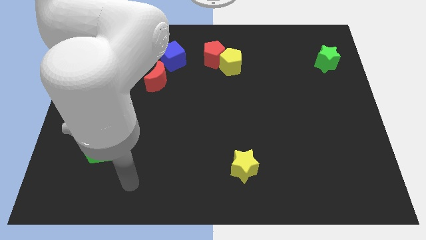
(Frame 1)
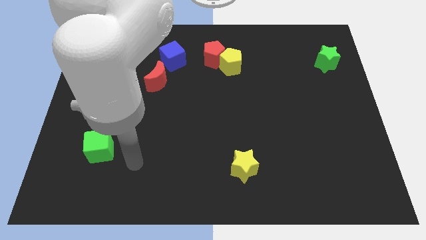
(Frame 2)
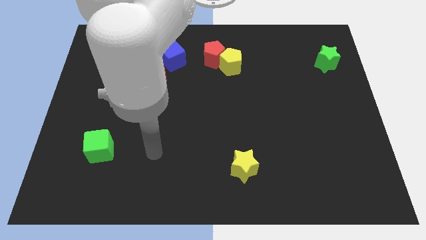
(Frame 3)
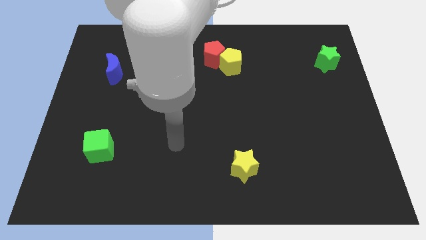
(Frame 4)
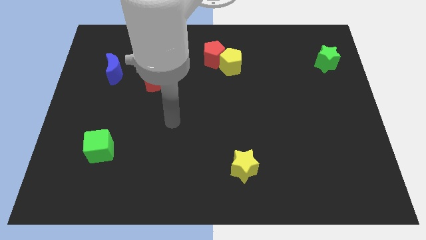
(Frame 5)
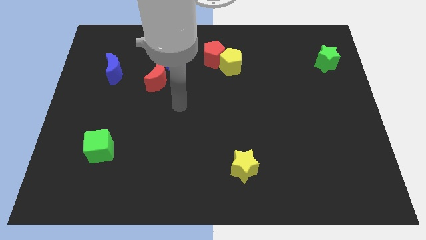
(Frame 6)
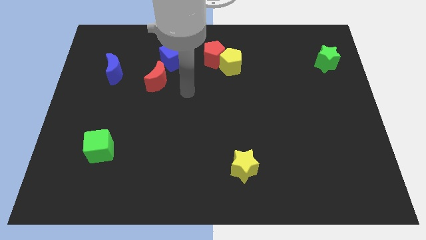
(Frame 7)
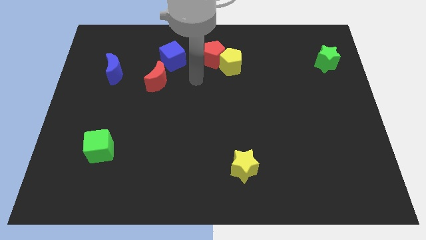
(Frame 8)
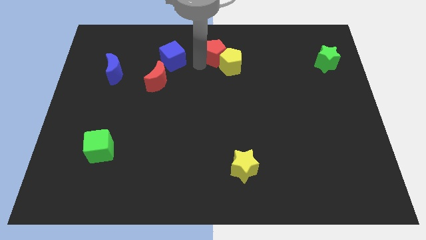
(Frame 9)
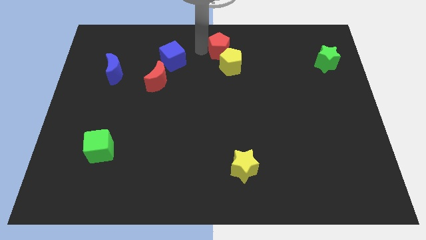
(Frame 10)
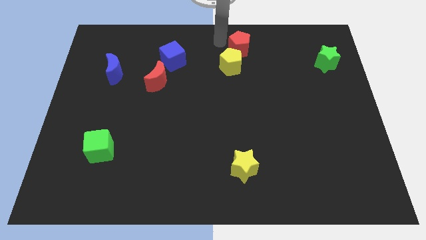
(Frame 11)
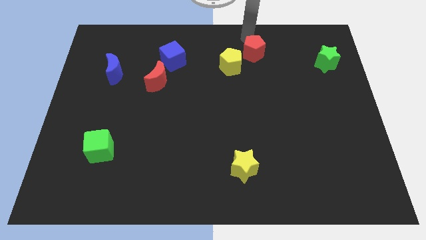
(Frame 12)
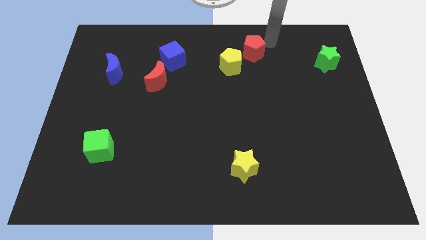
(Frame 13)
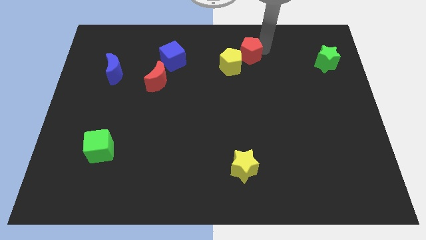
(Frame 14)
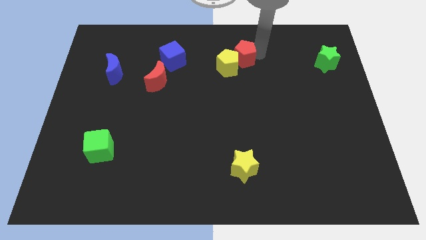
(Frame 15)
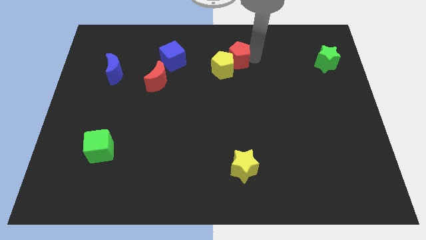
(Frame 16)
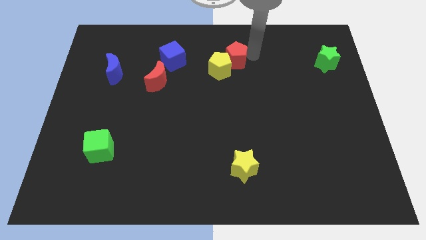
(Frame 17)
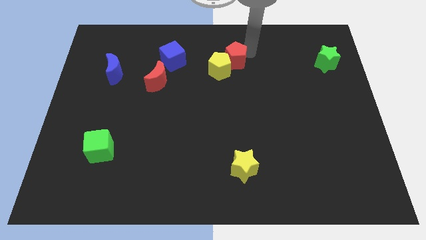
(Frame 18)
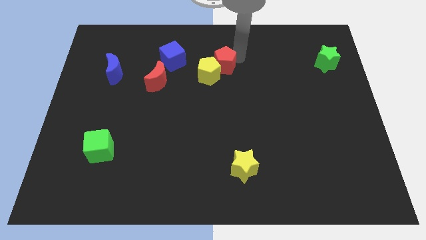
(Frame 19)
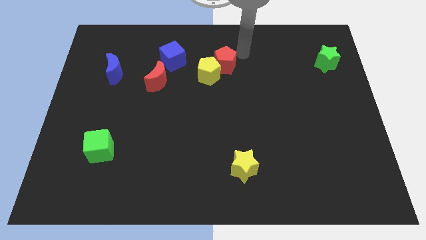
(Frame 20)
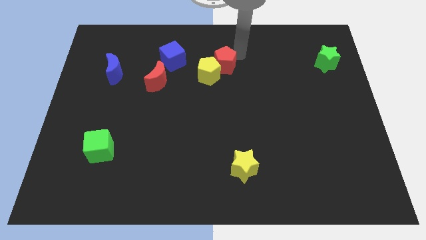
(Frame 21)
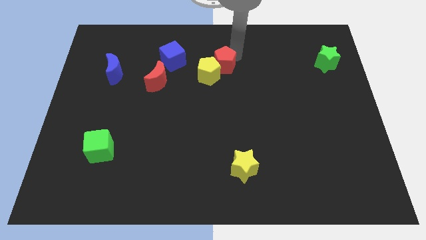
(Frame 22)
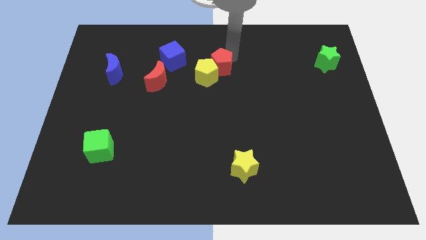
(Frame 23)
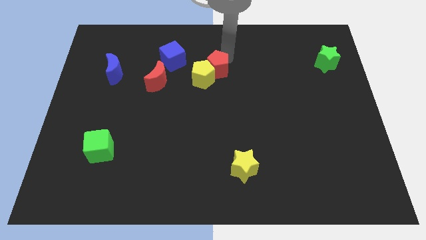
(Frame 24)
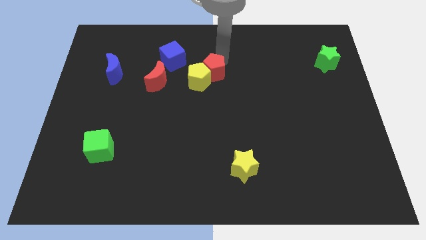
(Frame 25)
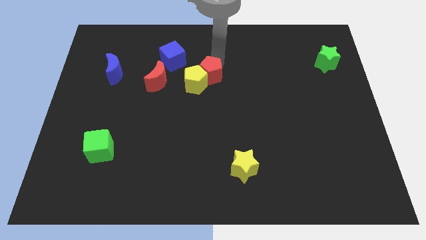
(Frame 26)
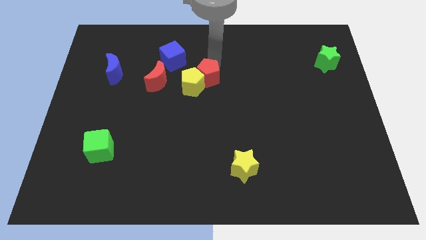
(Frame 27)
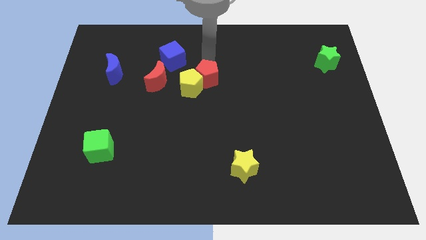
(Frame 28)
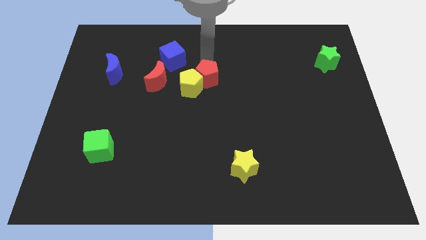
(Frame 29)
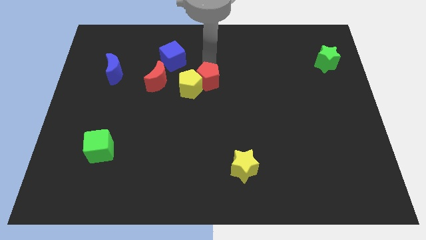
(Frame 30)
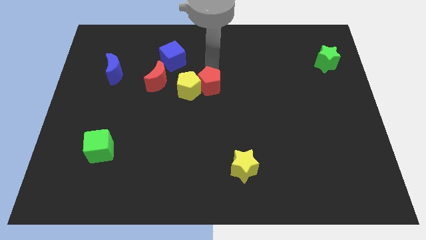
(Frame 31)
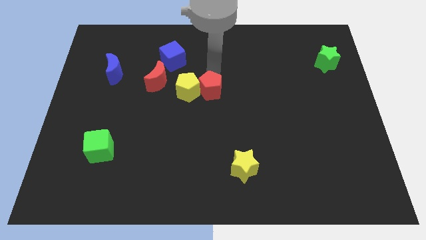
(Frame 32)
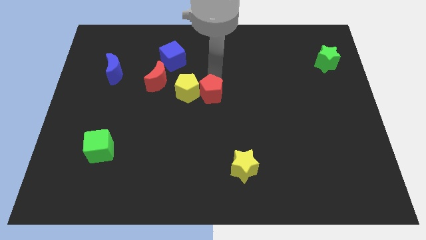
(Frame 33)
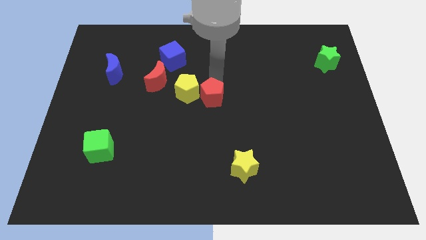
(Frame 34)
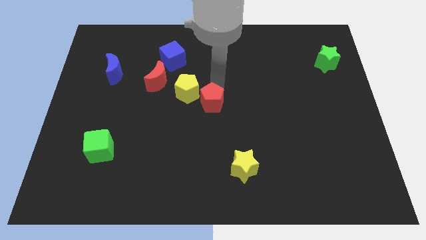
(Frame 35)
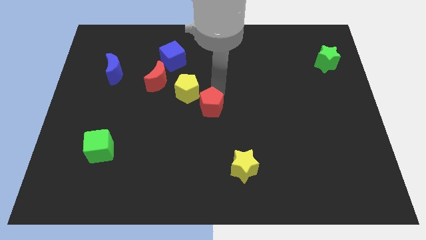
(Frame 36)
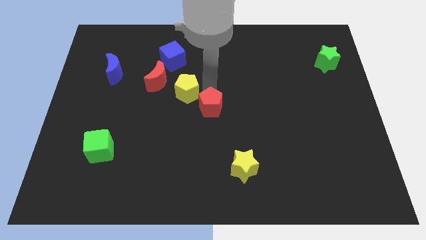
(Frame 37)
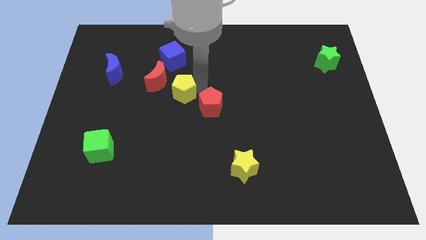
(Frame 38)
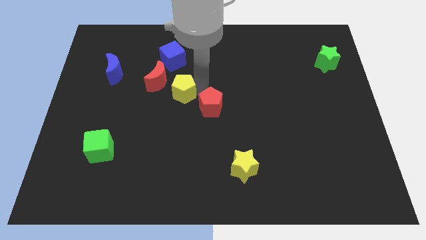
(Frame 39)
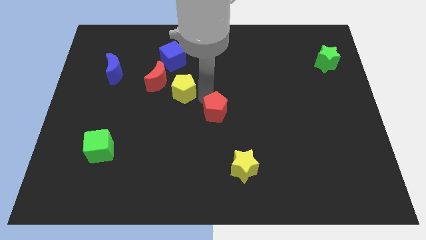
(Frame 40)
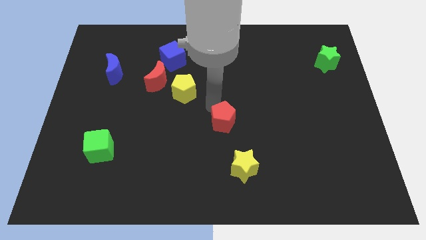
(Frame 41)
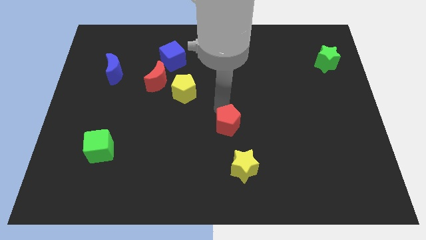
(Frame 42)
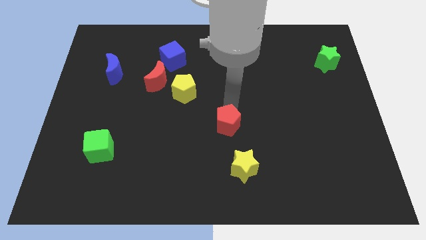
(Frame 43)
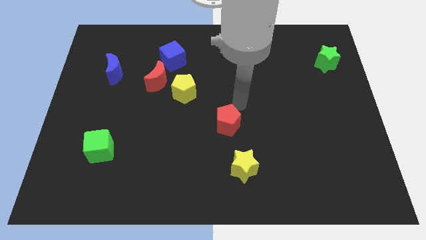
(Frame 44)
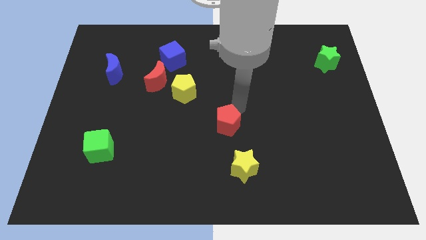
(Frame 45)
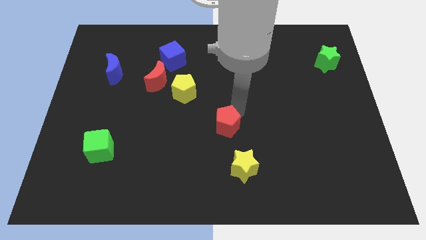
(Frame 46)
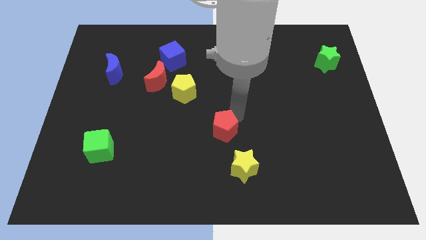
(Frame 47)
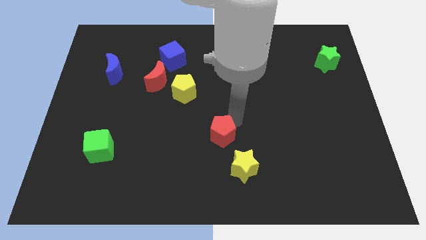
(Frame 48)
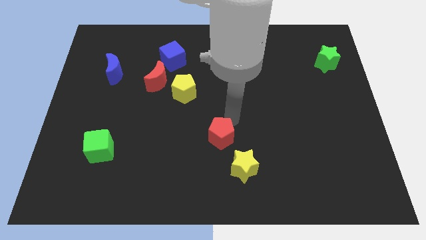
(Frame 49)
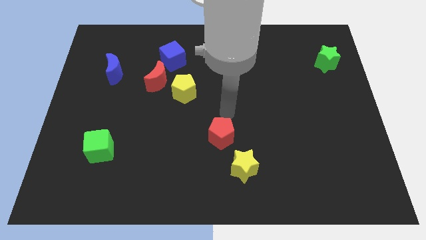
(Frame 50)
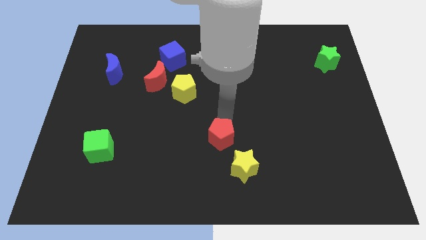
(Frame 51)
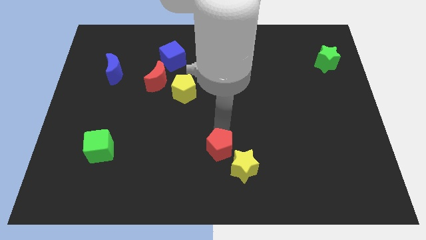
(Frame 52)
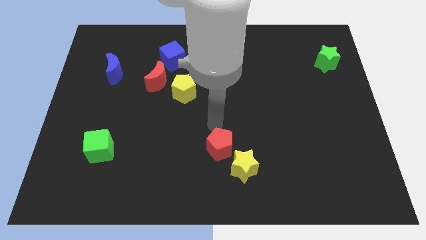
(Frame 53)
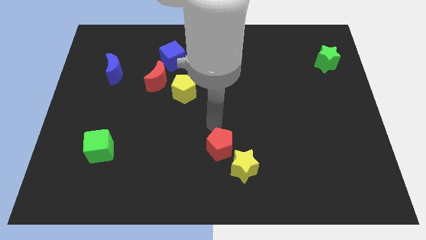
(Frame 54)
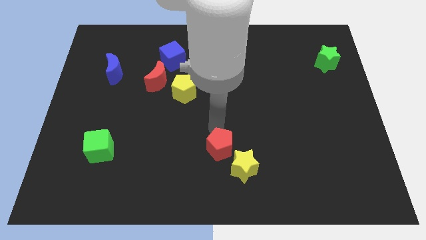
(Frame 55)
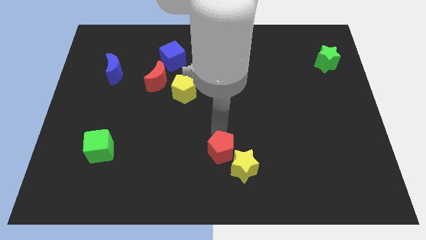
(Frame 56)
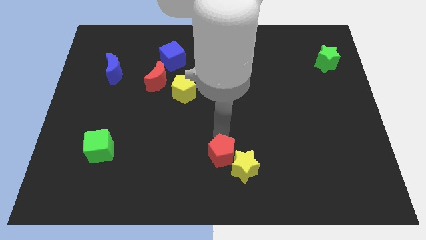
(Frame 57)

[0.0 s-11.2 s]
move the red pentagon to the bottom

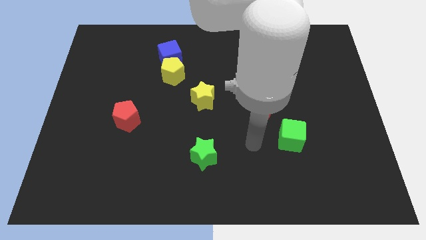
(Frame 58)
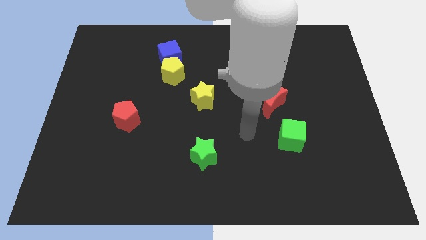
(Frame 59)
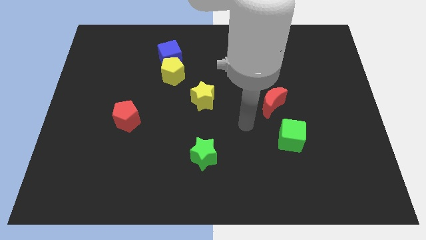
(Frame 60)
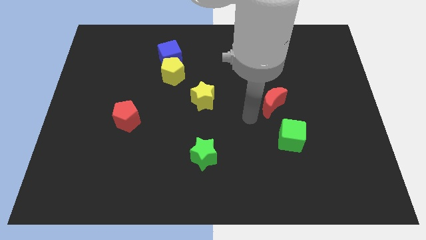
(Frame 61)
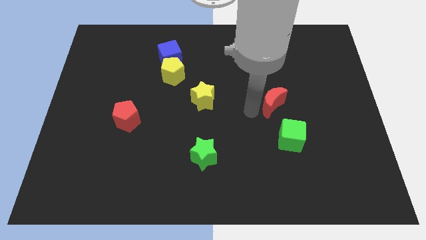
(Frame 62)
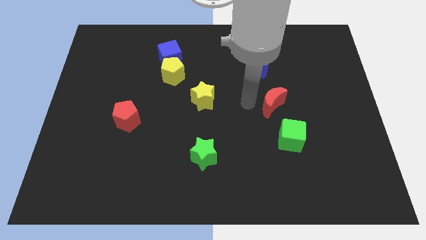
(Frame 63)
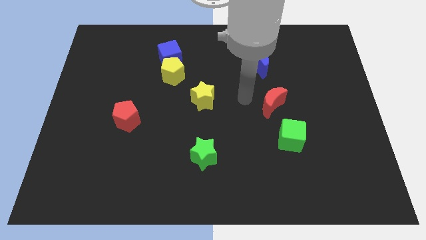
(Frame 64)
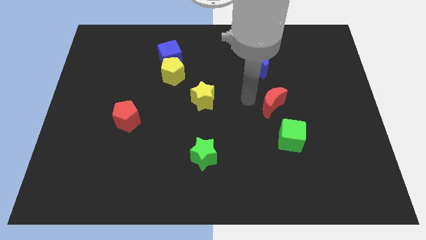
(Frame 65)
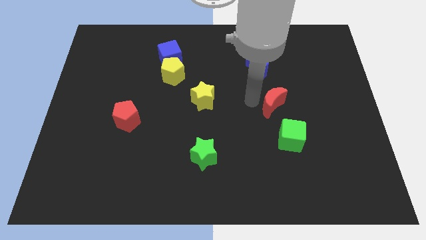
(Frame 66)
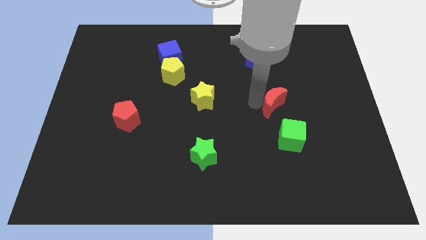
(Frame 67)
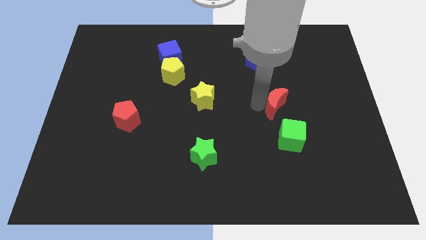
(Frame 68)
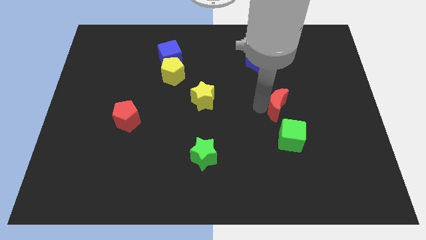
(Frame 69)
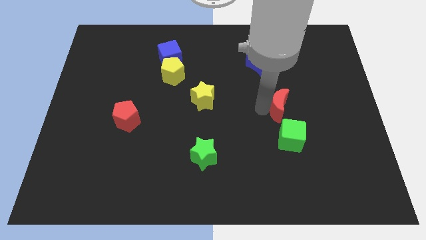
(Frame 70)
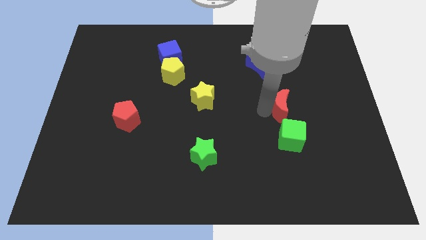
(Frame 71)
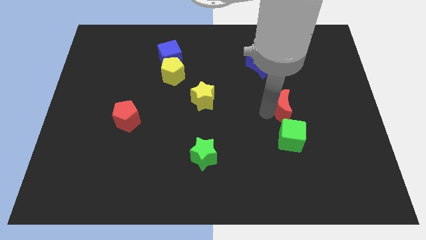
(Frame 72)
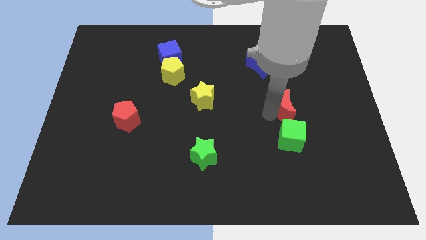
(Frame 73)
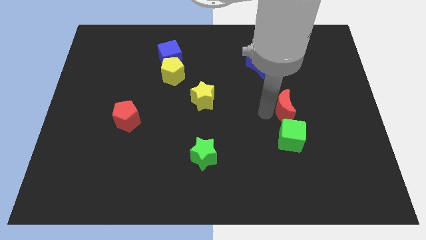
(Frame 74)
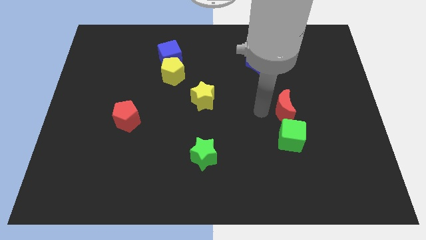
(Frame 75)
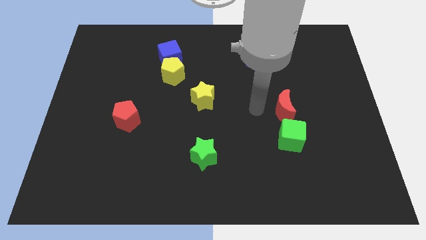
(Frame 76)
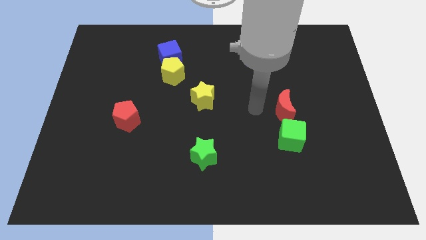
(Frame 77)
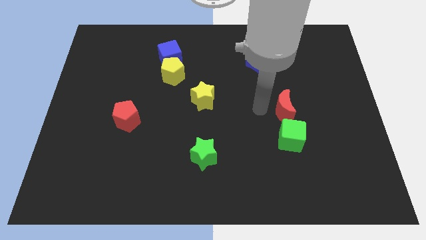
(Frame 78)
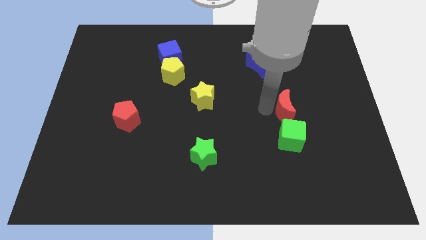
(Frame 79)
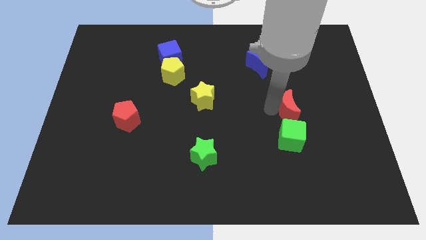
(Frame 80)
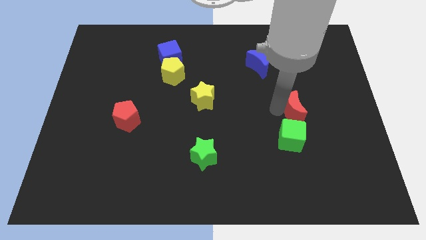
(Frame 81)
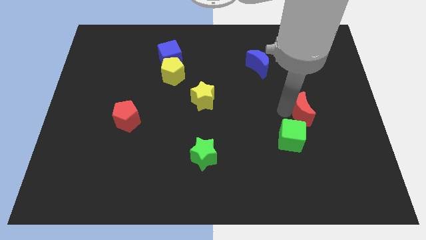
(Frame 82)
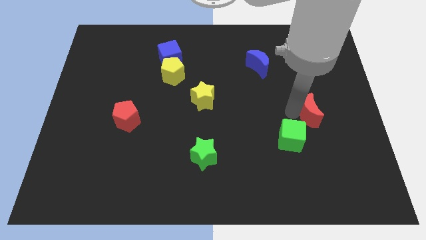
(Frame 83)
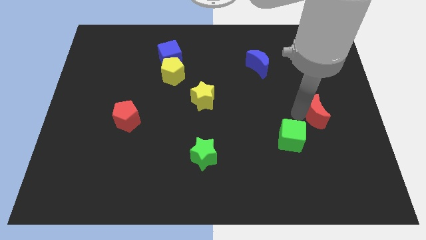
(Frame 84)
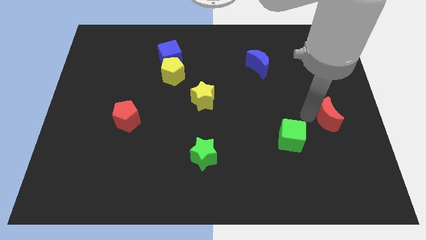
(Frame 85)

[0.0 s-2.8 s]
move the red moon to the center right
